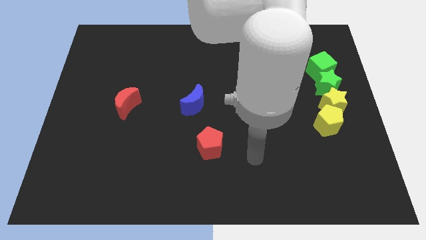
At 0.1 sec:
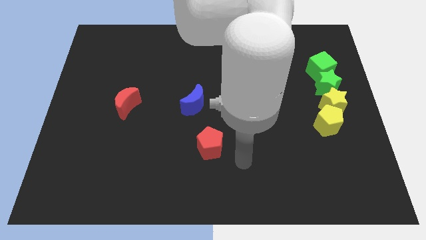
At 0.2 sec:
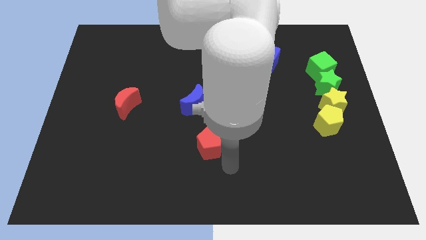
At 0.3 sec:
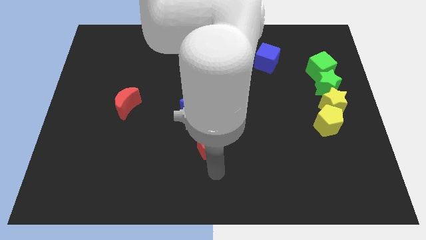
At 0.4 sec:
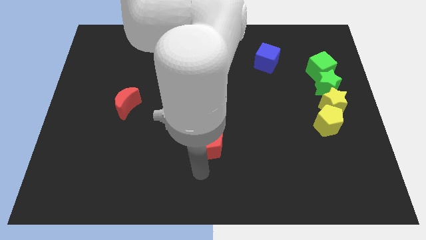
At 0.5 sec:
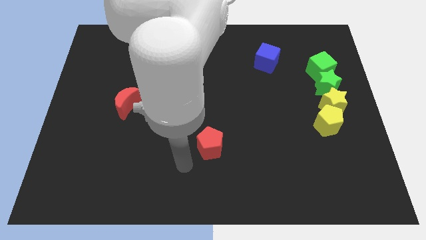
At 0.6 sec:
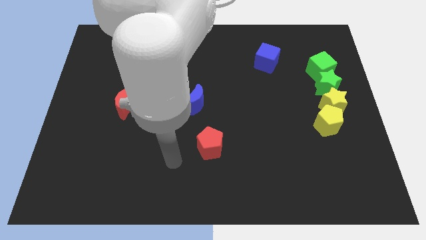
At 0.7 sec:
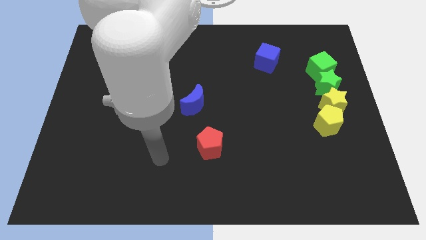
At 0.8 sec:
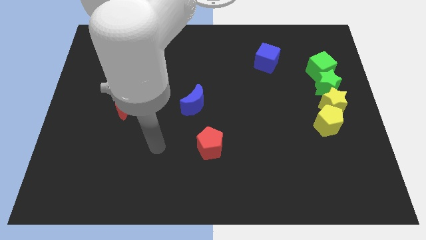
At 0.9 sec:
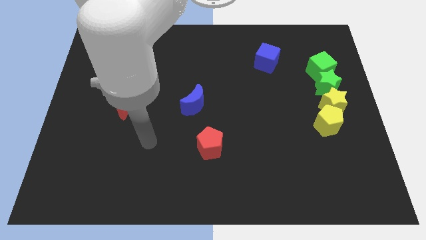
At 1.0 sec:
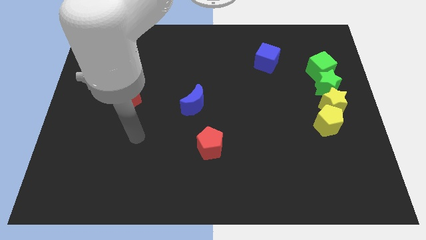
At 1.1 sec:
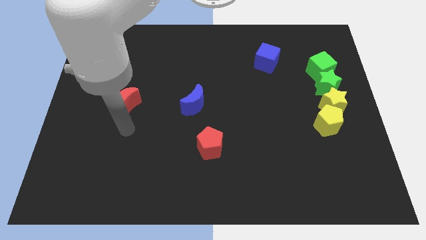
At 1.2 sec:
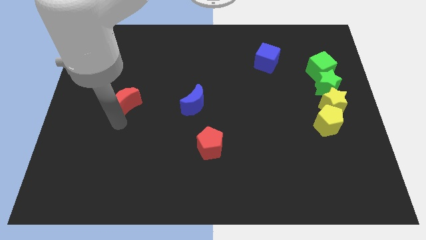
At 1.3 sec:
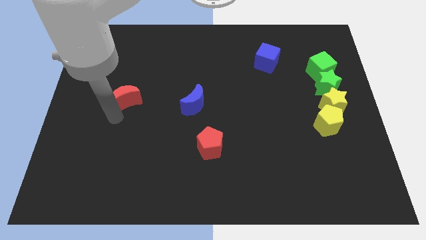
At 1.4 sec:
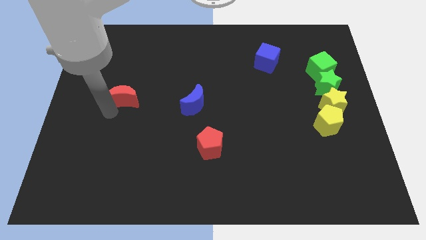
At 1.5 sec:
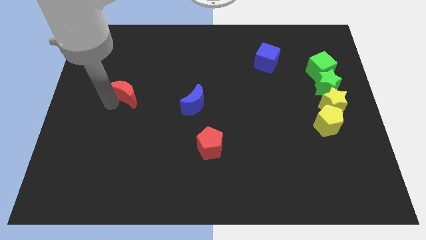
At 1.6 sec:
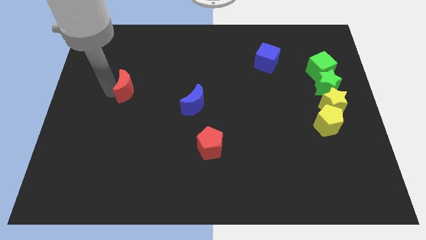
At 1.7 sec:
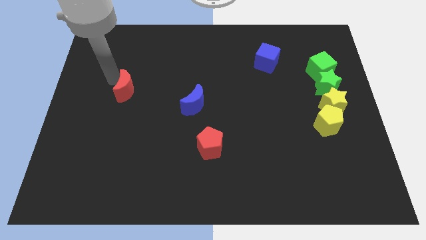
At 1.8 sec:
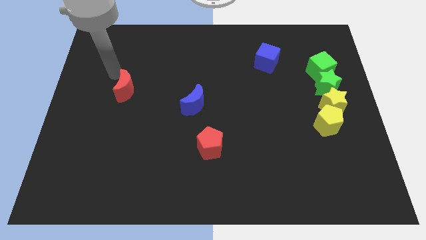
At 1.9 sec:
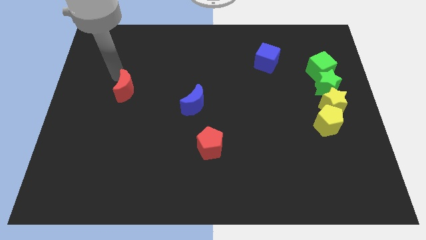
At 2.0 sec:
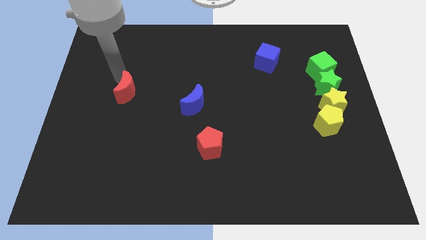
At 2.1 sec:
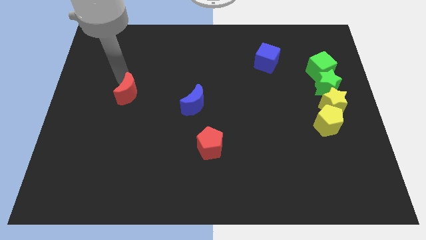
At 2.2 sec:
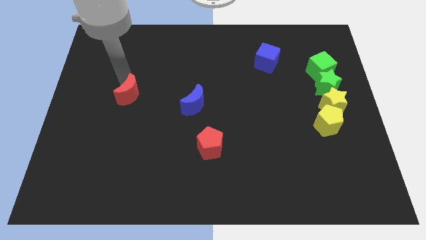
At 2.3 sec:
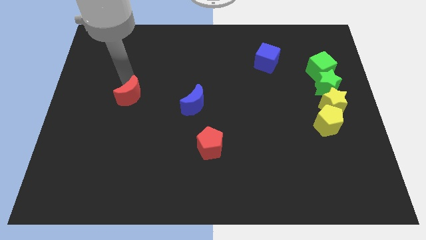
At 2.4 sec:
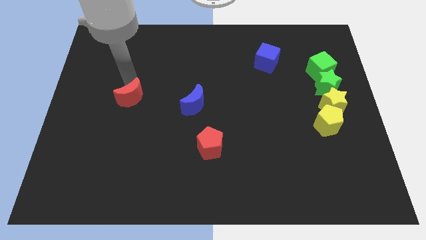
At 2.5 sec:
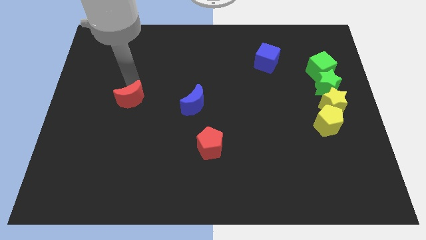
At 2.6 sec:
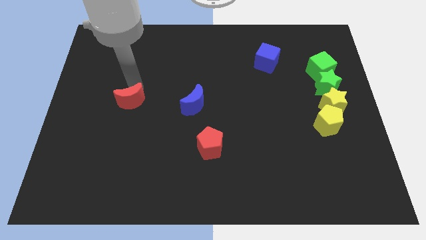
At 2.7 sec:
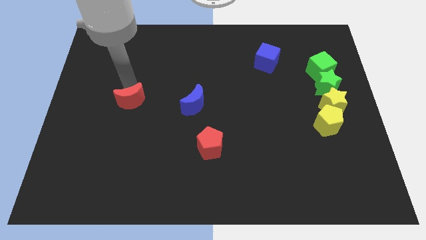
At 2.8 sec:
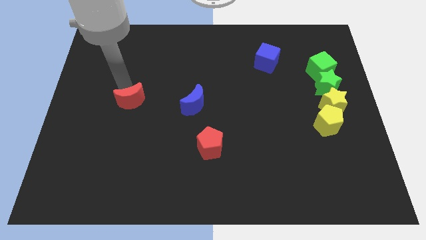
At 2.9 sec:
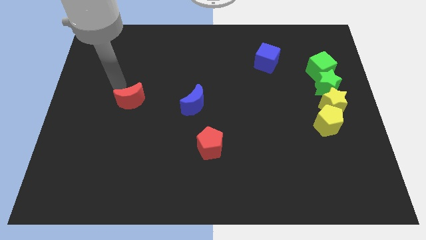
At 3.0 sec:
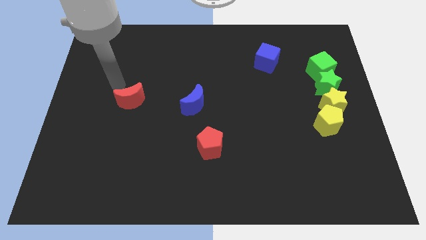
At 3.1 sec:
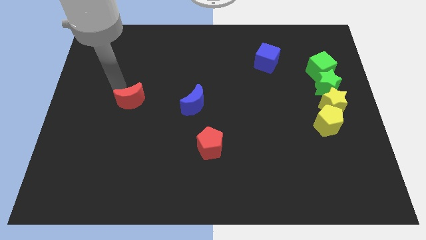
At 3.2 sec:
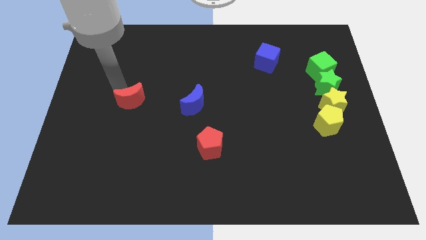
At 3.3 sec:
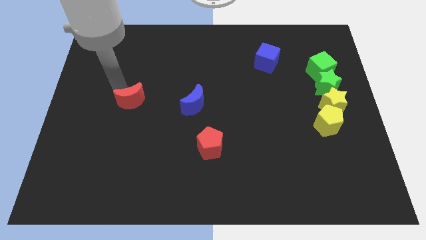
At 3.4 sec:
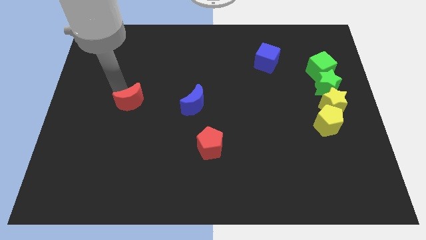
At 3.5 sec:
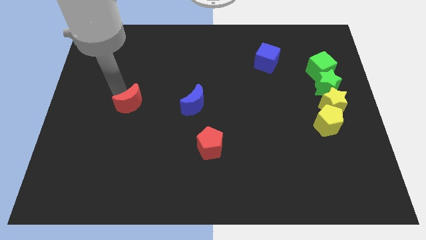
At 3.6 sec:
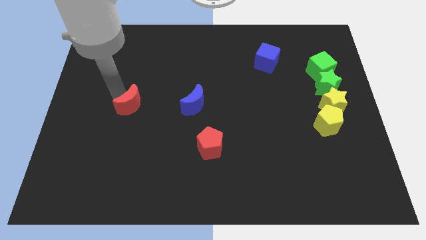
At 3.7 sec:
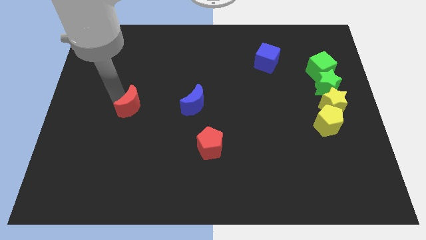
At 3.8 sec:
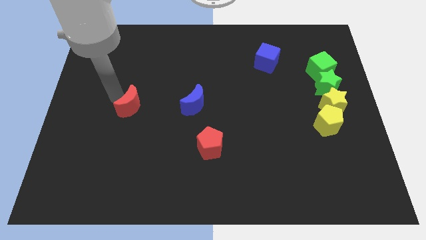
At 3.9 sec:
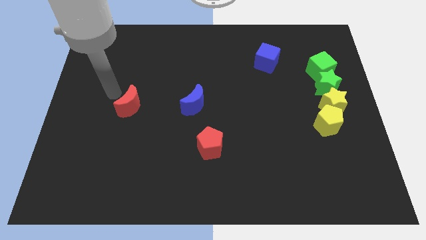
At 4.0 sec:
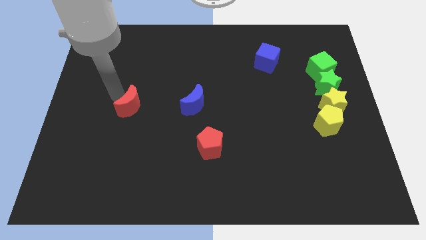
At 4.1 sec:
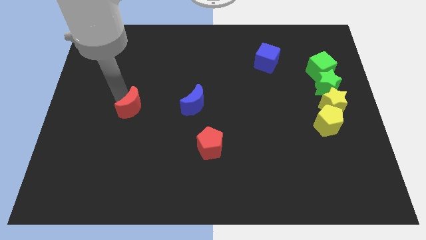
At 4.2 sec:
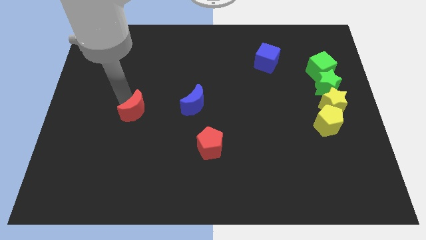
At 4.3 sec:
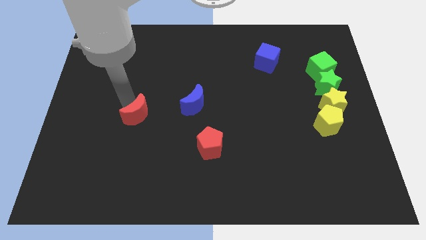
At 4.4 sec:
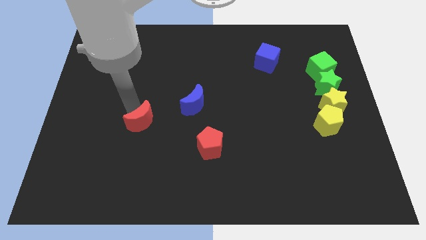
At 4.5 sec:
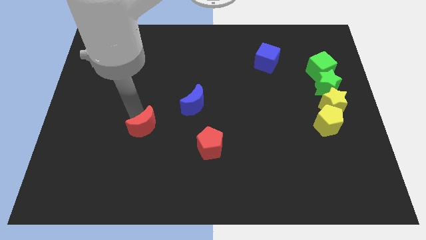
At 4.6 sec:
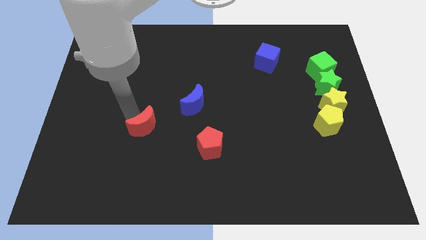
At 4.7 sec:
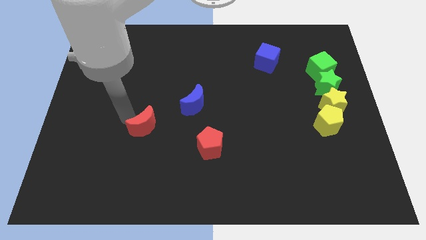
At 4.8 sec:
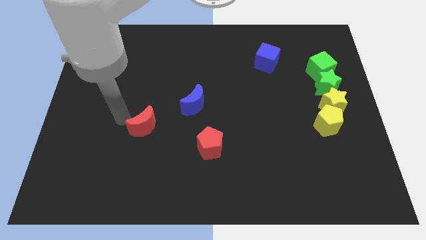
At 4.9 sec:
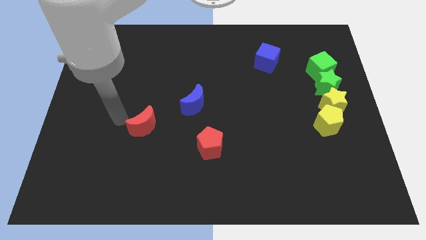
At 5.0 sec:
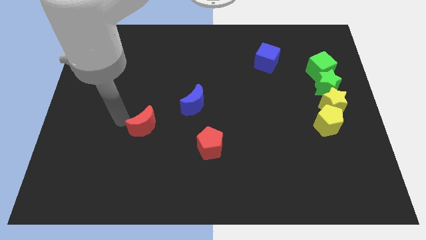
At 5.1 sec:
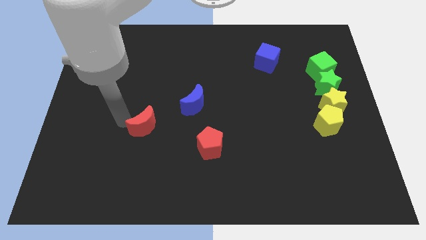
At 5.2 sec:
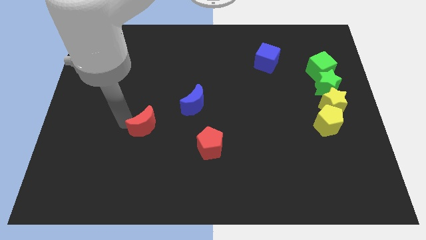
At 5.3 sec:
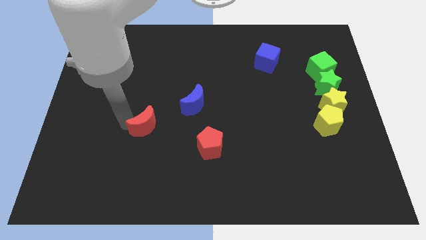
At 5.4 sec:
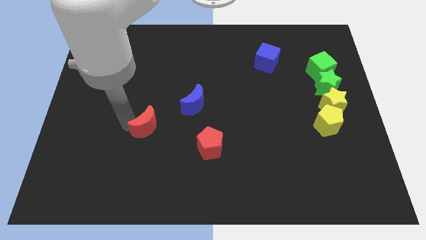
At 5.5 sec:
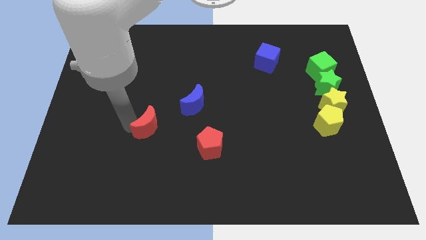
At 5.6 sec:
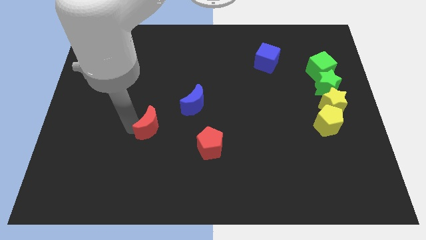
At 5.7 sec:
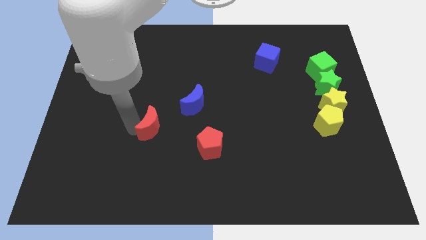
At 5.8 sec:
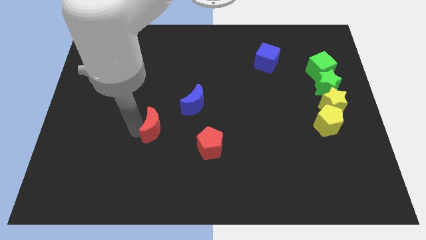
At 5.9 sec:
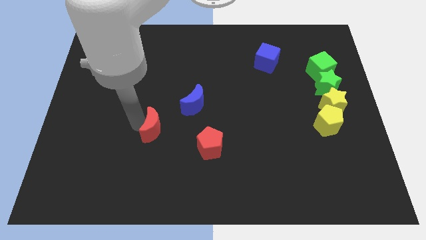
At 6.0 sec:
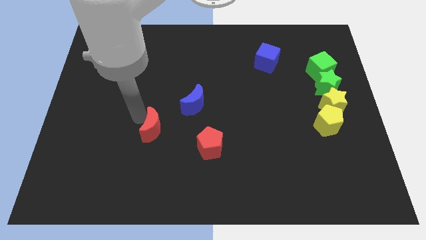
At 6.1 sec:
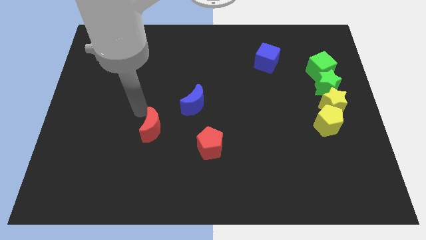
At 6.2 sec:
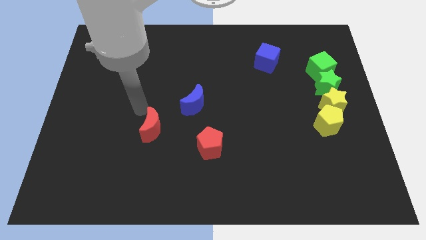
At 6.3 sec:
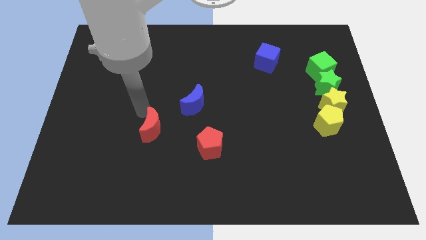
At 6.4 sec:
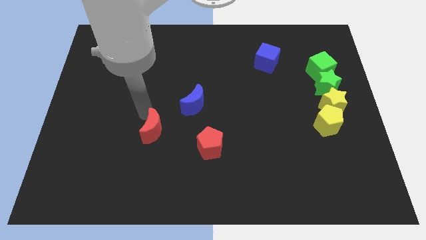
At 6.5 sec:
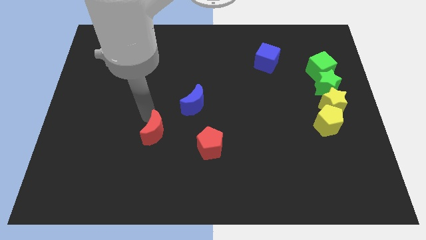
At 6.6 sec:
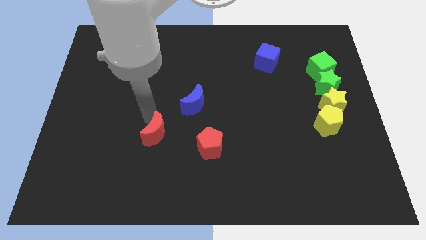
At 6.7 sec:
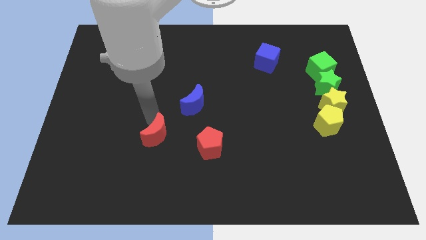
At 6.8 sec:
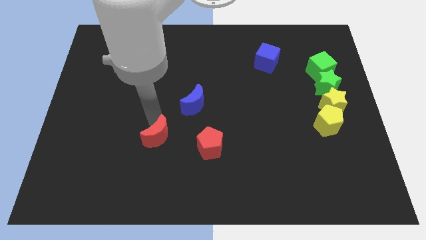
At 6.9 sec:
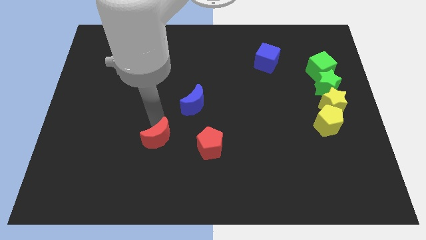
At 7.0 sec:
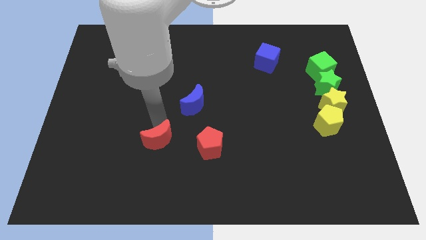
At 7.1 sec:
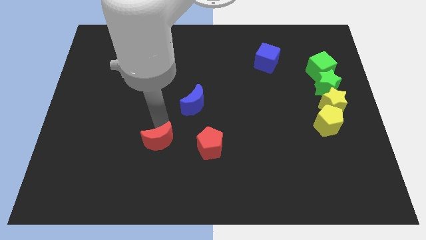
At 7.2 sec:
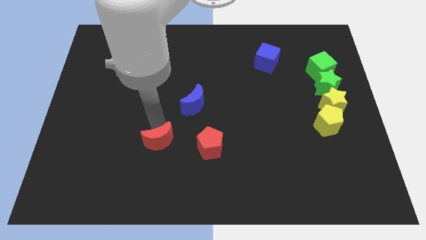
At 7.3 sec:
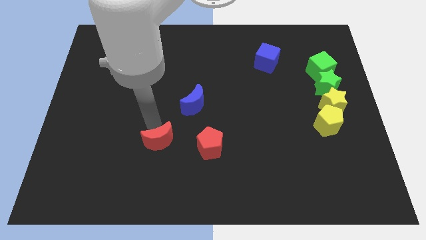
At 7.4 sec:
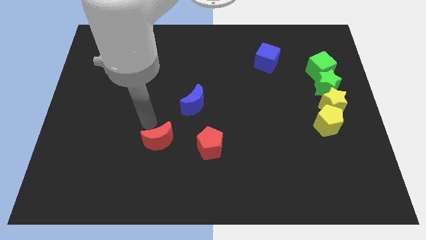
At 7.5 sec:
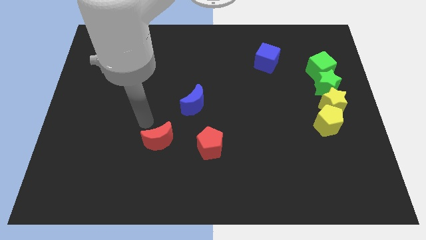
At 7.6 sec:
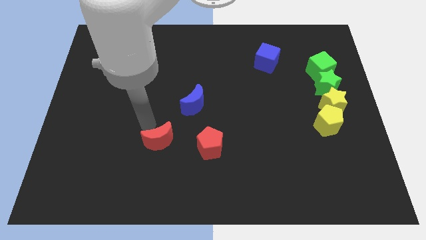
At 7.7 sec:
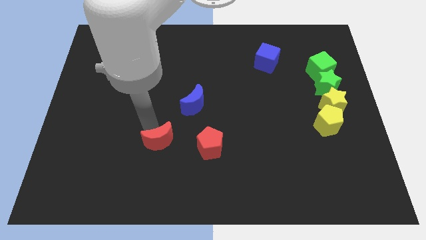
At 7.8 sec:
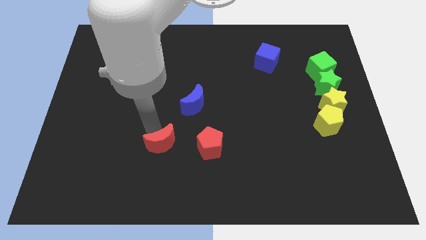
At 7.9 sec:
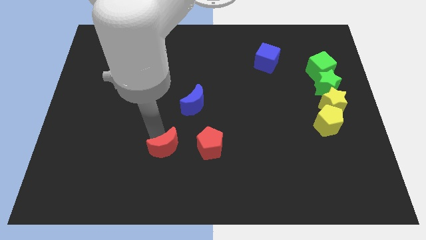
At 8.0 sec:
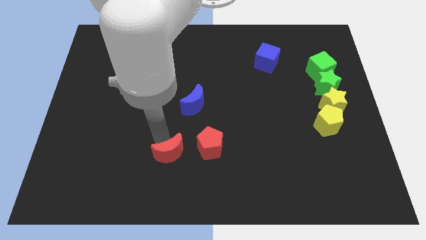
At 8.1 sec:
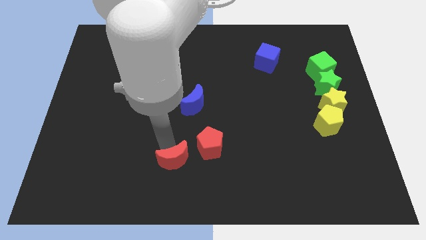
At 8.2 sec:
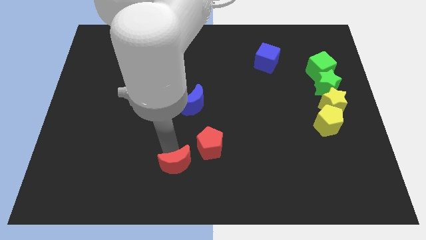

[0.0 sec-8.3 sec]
push the red moon to the bottom side

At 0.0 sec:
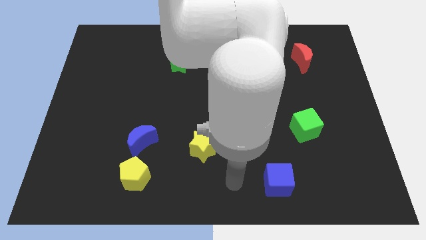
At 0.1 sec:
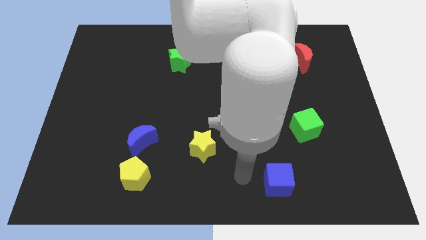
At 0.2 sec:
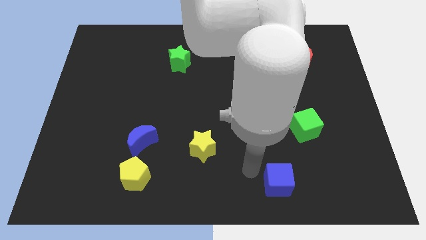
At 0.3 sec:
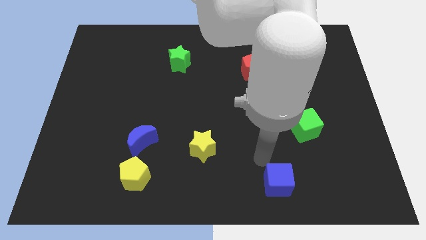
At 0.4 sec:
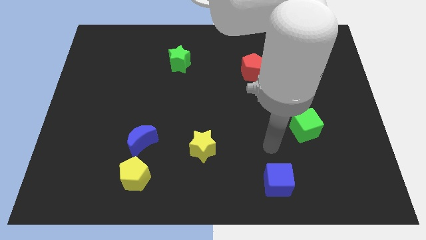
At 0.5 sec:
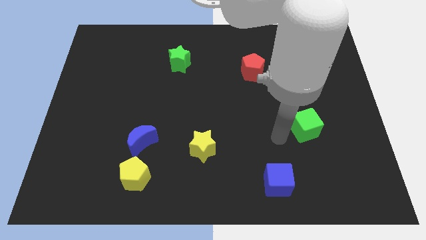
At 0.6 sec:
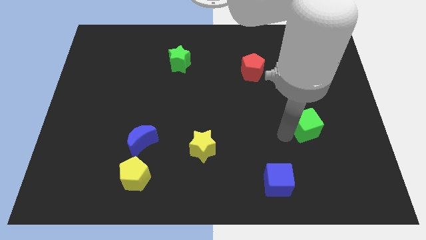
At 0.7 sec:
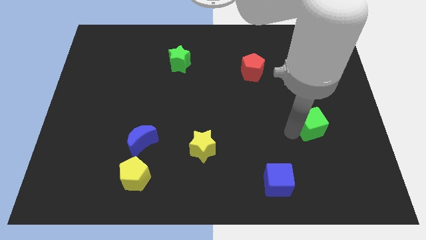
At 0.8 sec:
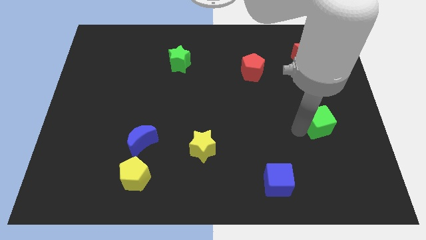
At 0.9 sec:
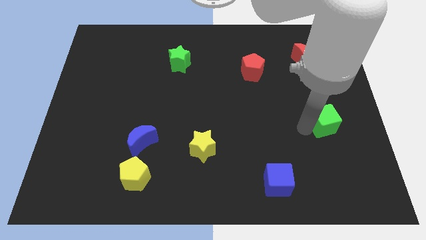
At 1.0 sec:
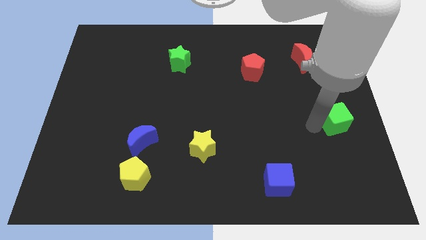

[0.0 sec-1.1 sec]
push the green cube to the center right
